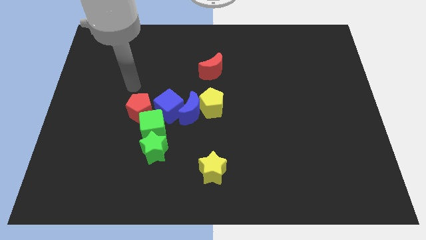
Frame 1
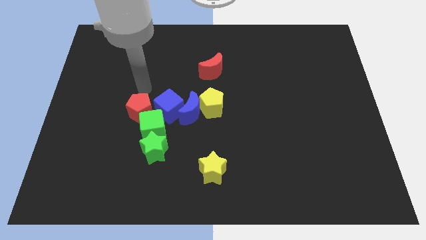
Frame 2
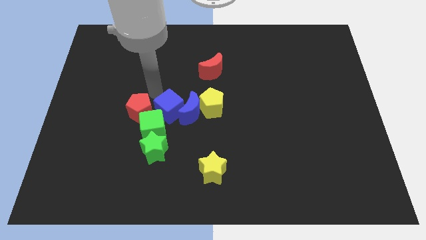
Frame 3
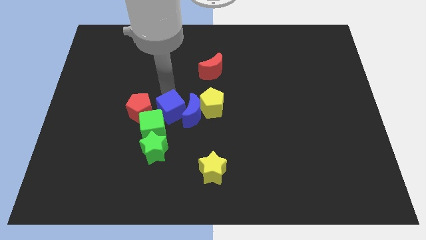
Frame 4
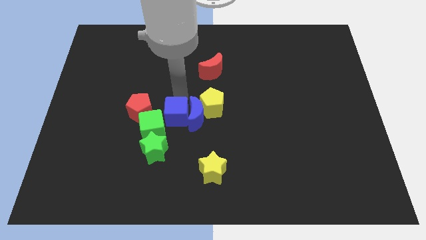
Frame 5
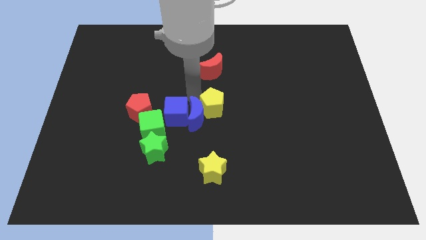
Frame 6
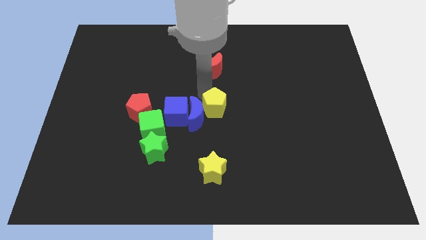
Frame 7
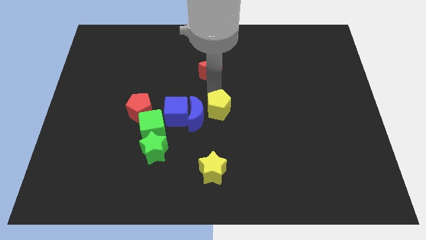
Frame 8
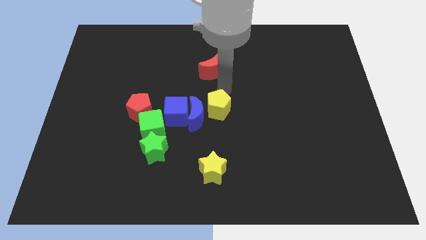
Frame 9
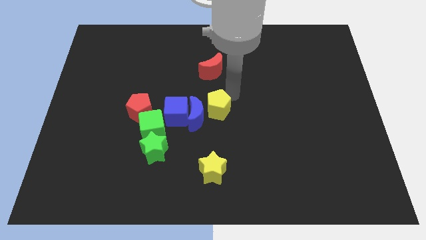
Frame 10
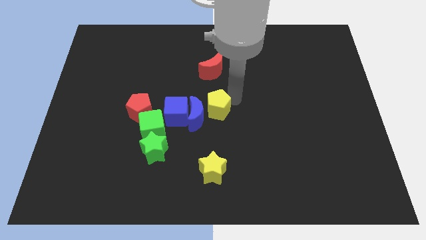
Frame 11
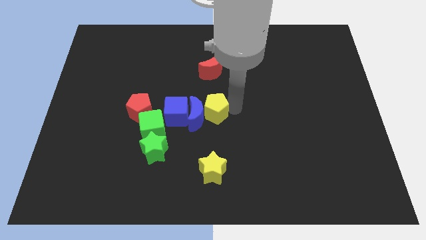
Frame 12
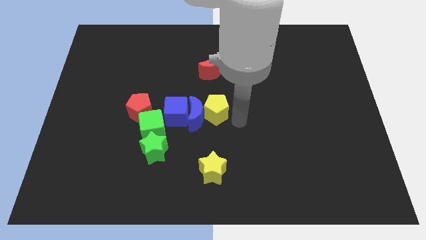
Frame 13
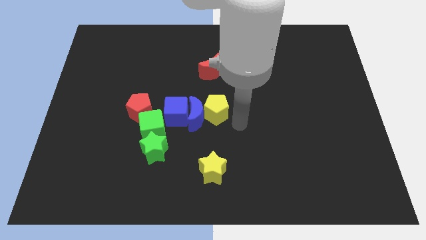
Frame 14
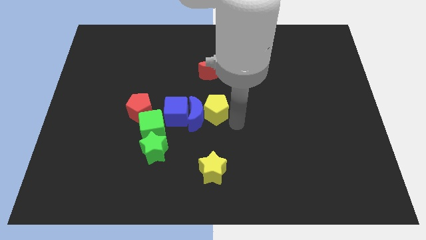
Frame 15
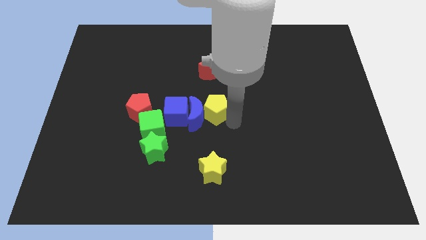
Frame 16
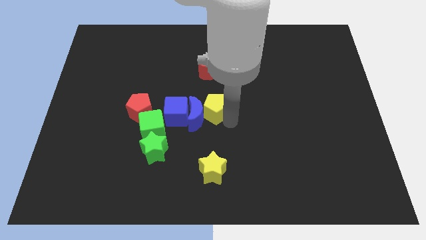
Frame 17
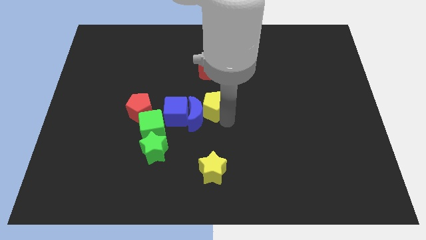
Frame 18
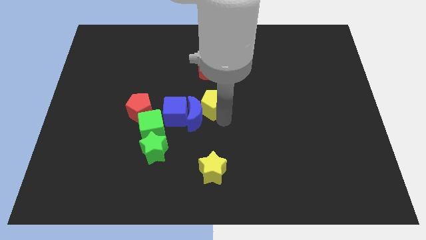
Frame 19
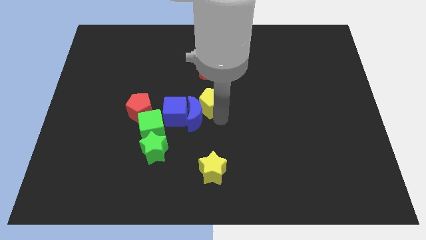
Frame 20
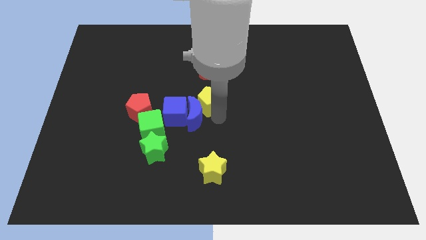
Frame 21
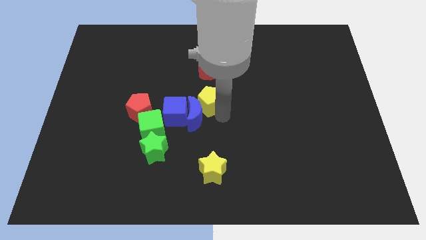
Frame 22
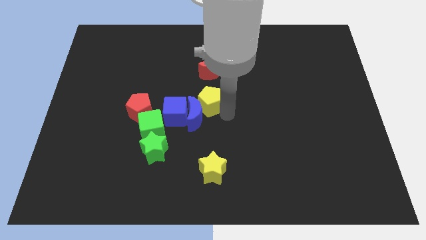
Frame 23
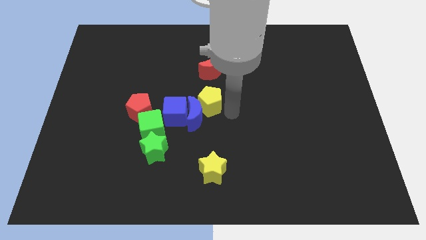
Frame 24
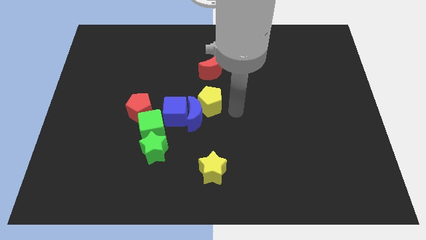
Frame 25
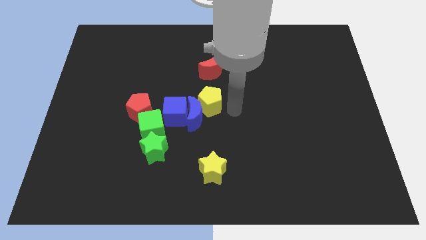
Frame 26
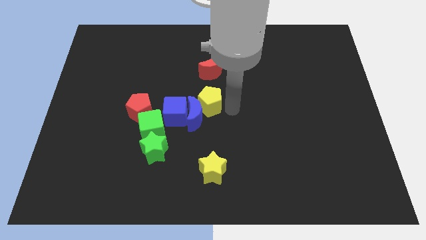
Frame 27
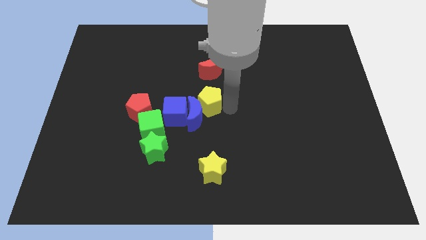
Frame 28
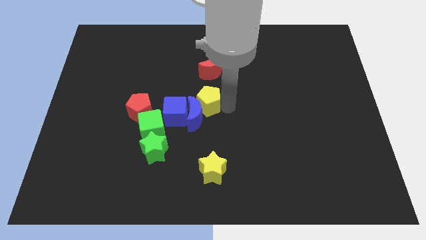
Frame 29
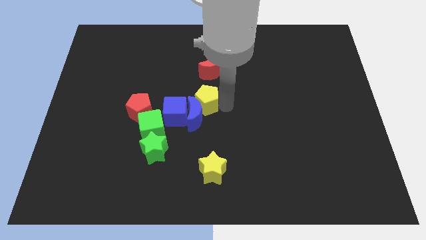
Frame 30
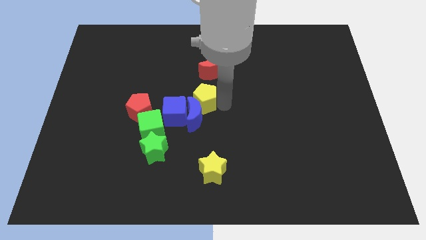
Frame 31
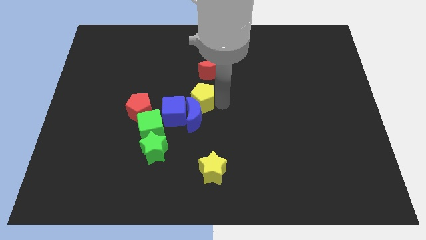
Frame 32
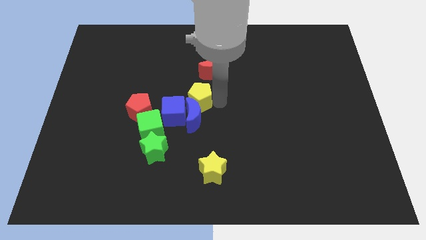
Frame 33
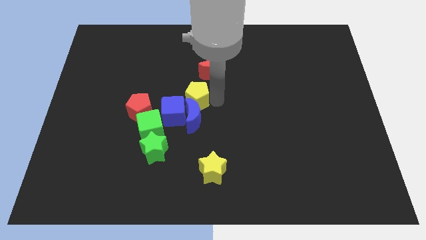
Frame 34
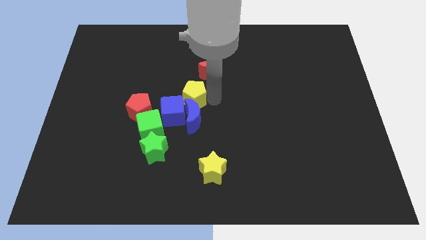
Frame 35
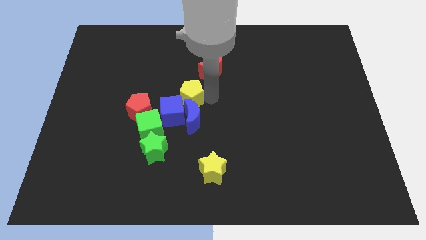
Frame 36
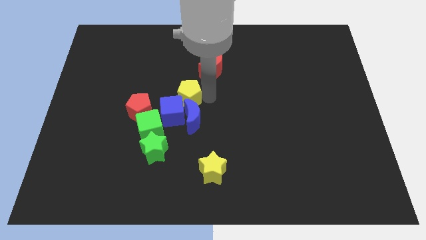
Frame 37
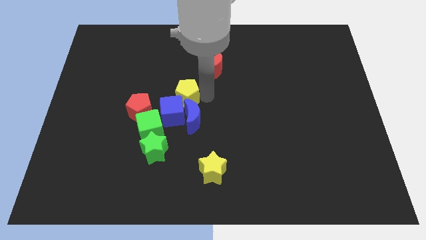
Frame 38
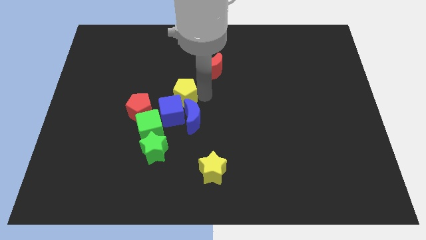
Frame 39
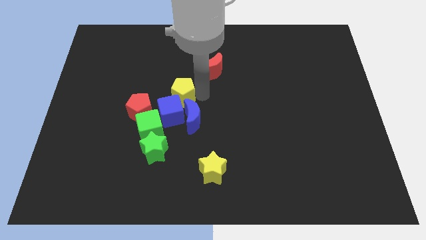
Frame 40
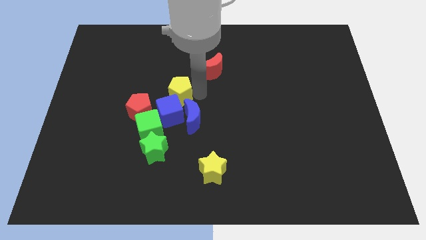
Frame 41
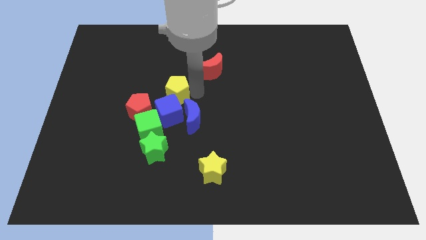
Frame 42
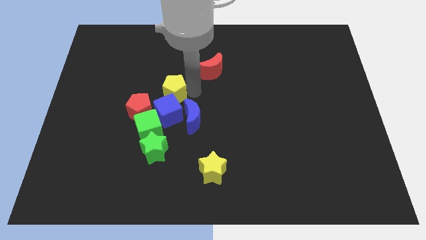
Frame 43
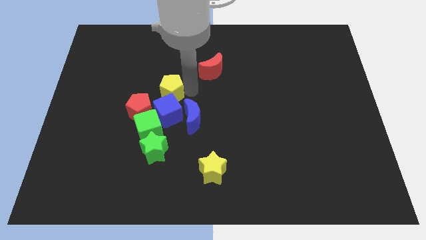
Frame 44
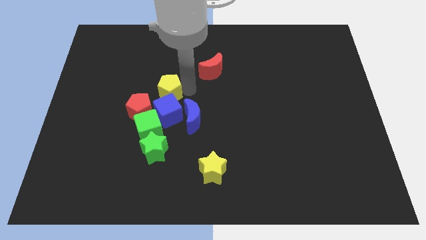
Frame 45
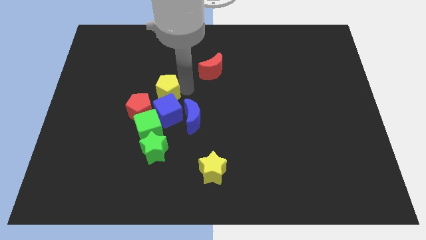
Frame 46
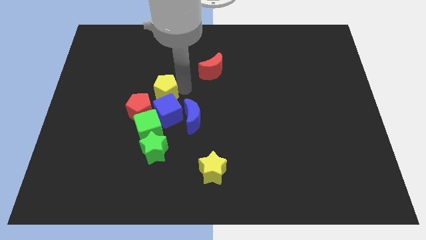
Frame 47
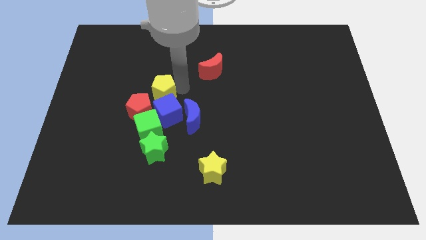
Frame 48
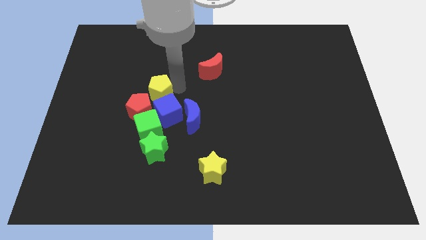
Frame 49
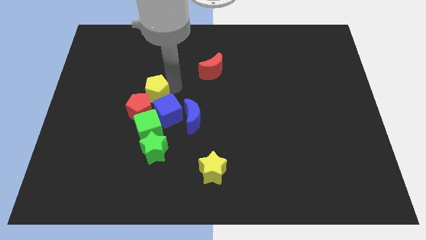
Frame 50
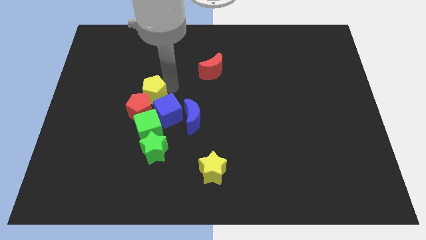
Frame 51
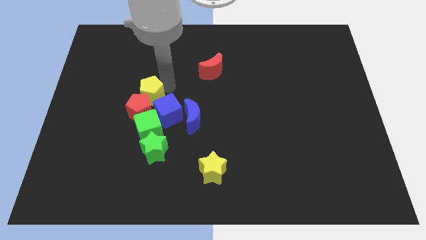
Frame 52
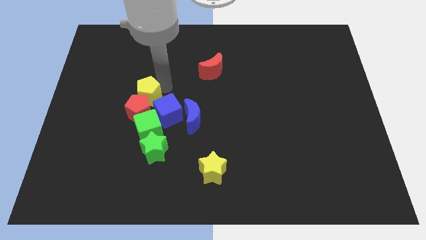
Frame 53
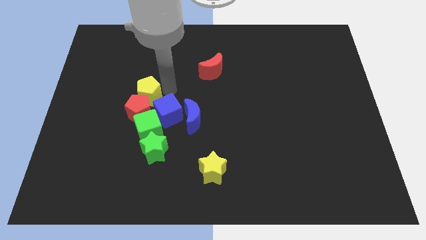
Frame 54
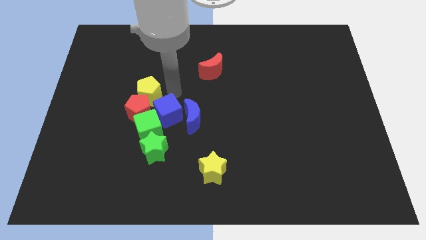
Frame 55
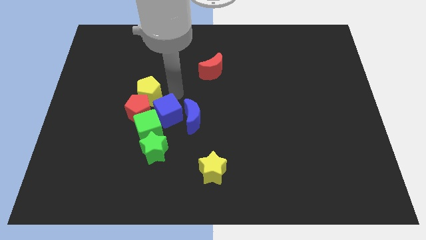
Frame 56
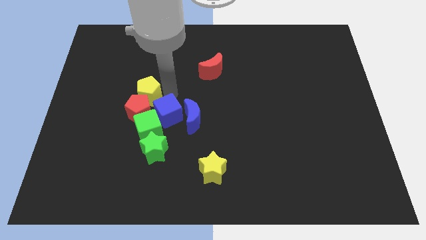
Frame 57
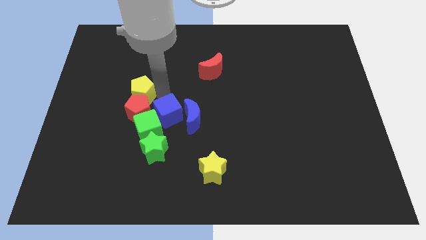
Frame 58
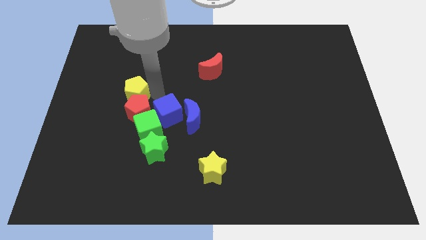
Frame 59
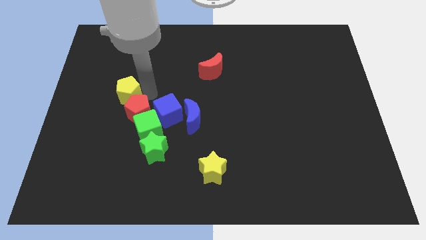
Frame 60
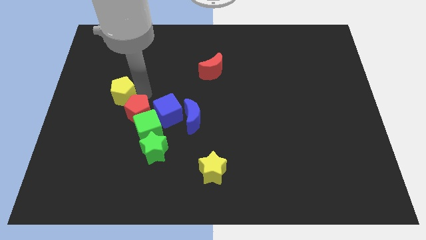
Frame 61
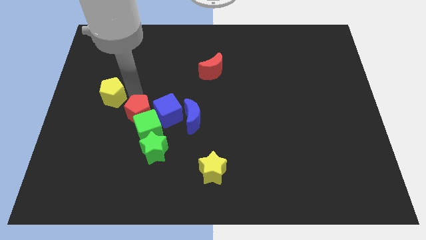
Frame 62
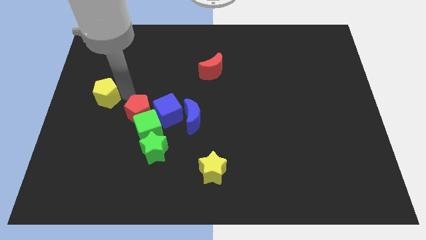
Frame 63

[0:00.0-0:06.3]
put the yellow pentagon to the center left
